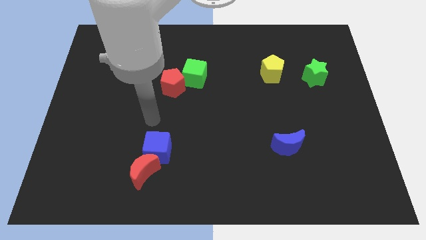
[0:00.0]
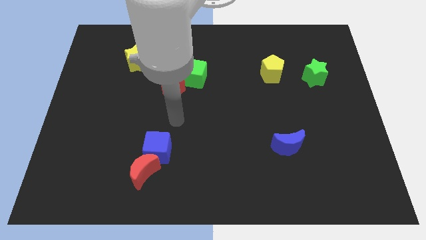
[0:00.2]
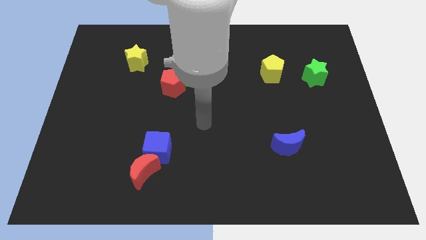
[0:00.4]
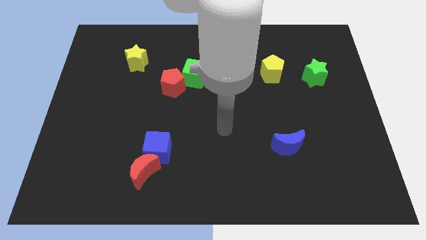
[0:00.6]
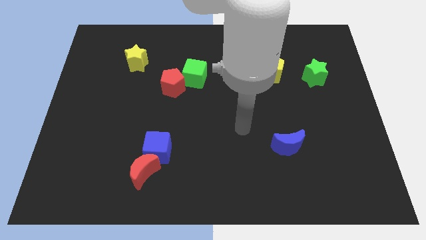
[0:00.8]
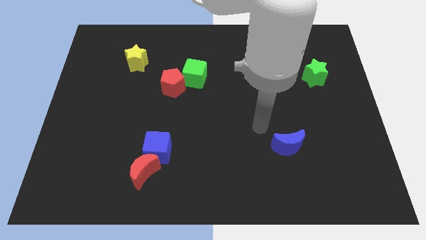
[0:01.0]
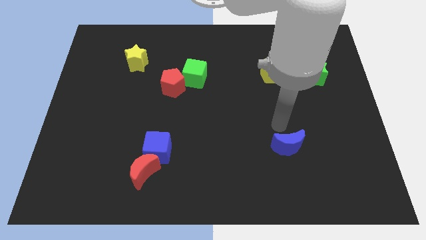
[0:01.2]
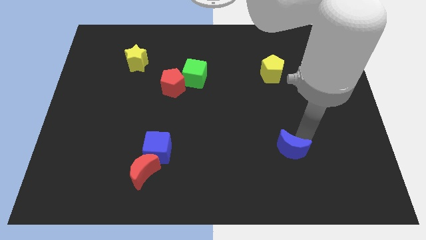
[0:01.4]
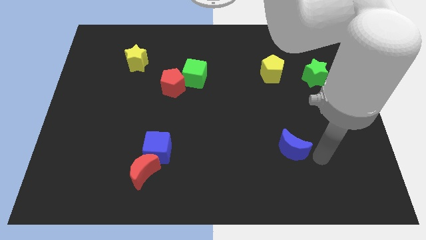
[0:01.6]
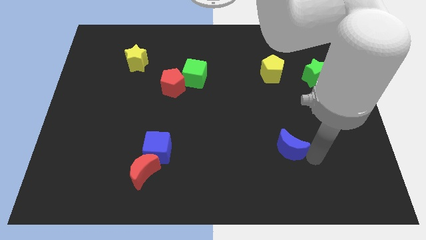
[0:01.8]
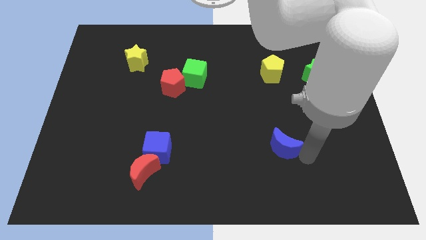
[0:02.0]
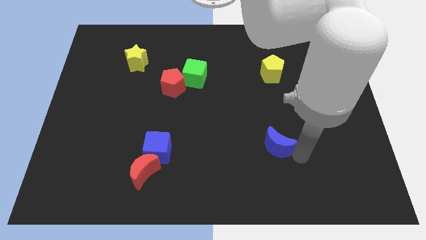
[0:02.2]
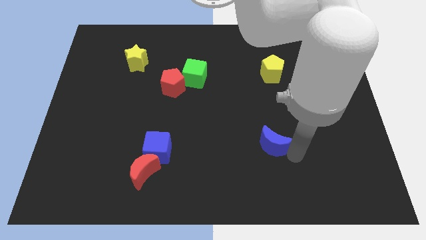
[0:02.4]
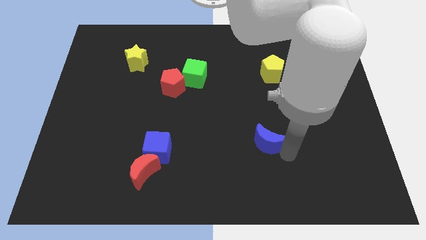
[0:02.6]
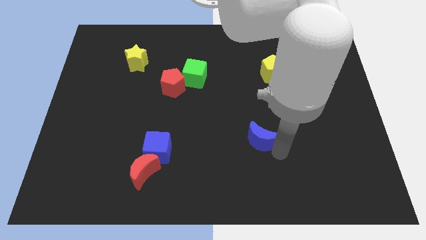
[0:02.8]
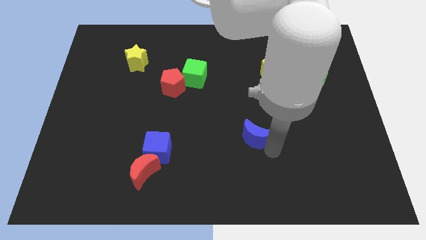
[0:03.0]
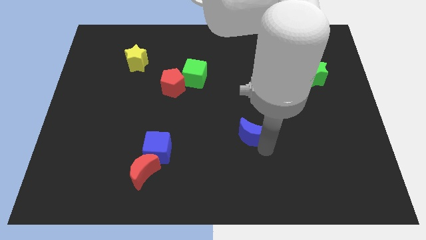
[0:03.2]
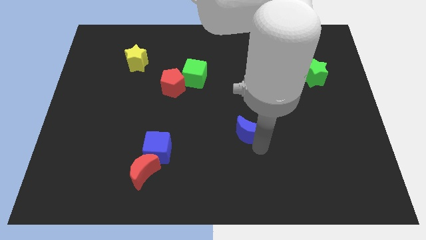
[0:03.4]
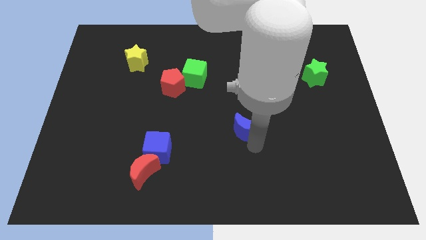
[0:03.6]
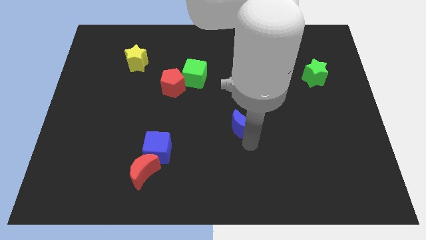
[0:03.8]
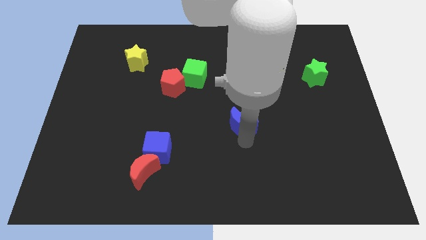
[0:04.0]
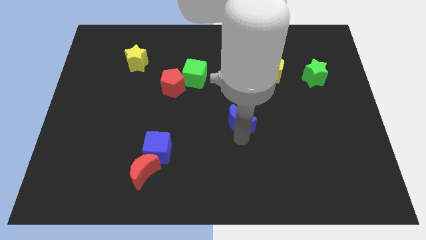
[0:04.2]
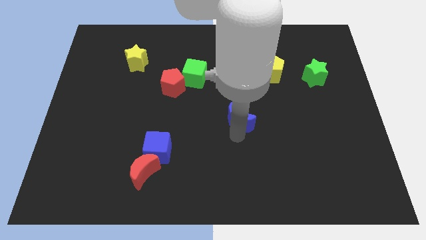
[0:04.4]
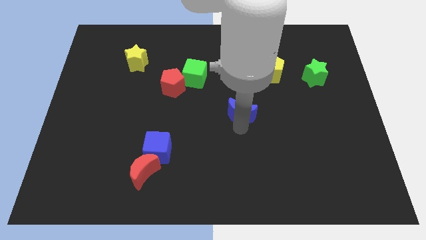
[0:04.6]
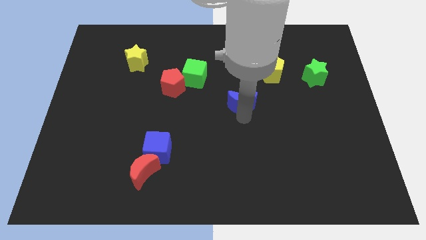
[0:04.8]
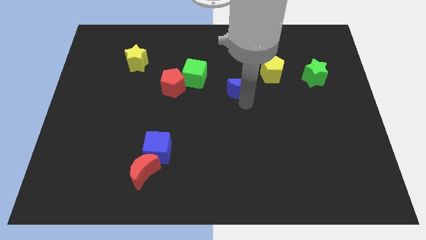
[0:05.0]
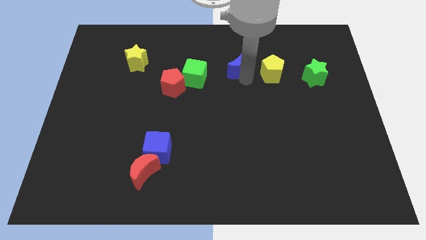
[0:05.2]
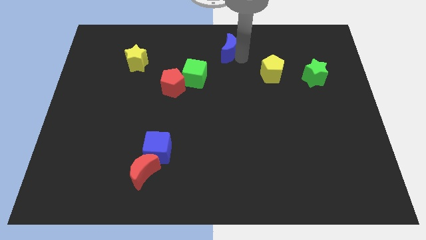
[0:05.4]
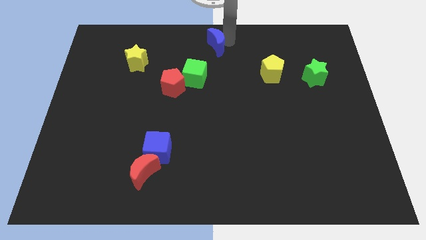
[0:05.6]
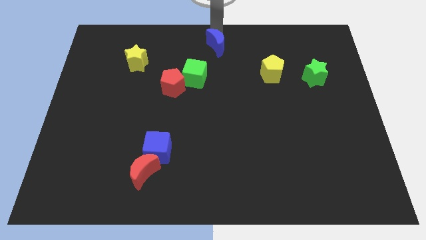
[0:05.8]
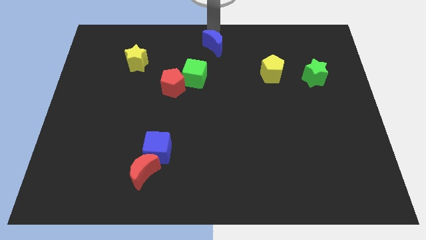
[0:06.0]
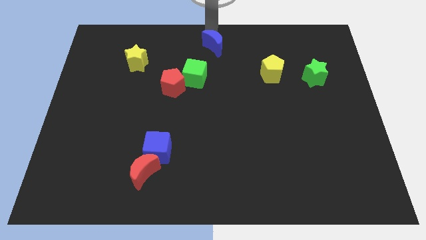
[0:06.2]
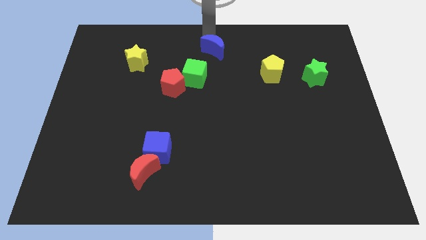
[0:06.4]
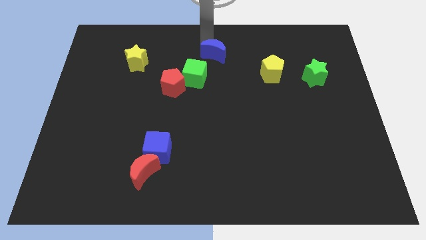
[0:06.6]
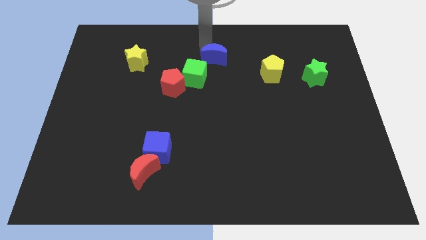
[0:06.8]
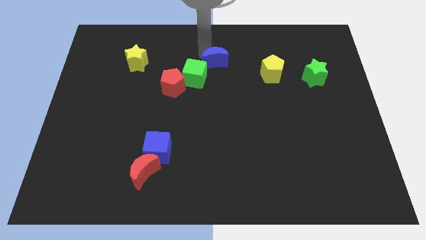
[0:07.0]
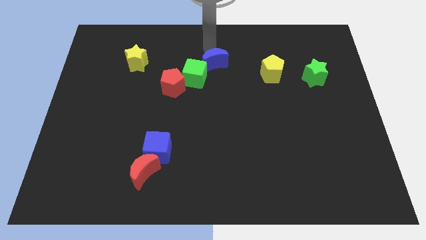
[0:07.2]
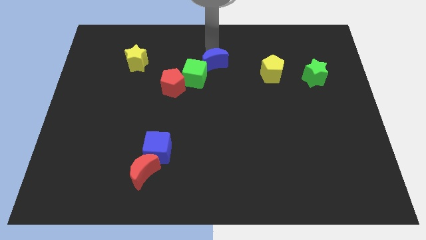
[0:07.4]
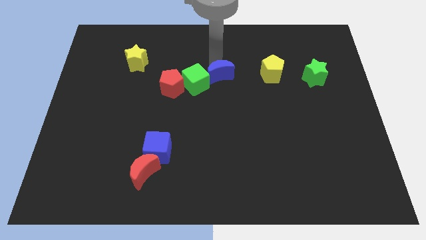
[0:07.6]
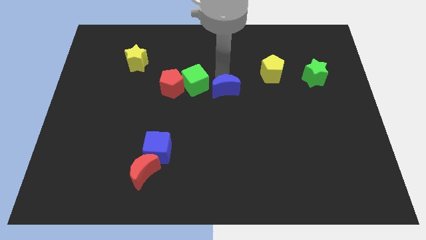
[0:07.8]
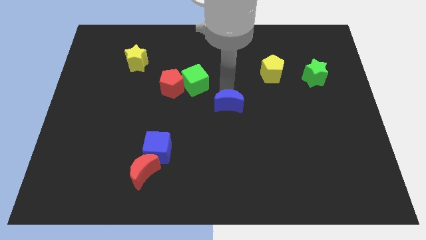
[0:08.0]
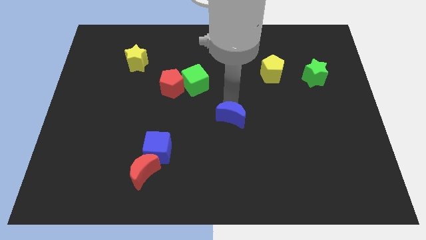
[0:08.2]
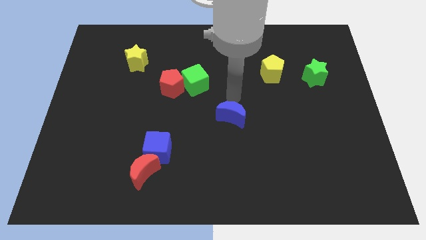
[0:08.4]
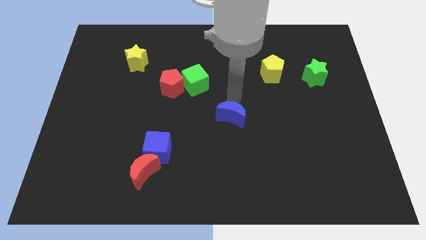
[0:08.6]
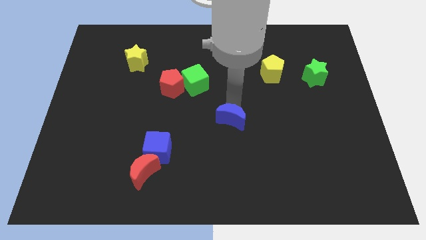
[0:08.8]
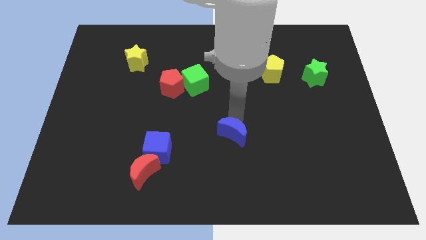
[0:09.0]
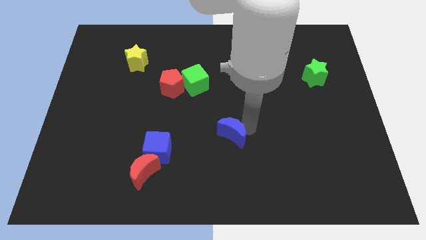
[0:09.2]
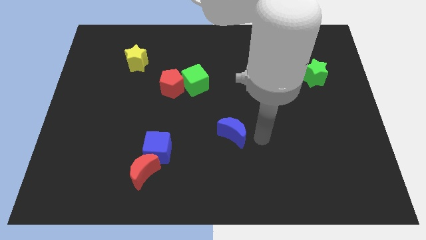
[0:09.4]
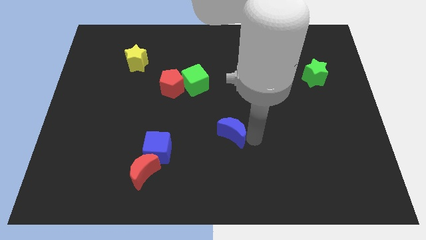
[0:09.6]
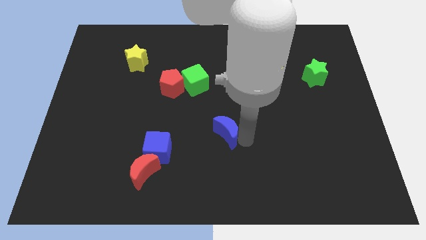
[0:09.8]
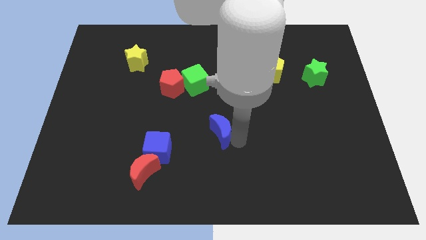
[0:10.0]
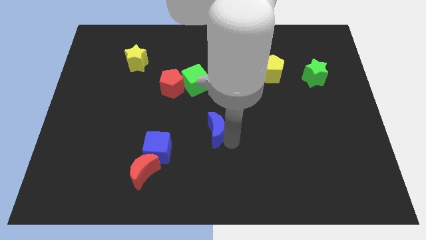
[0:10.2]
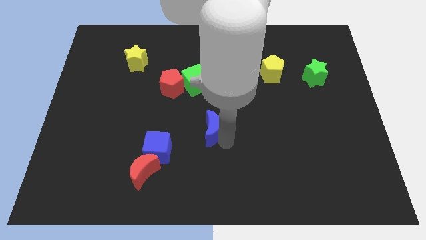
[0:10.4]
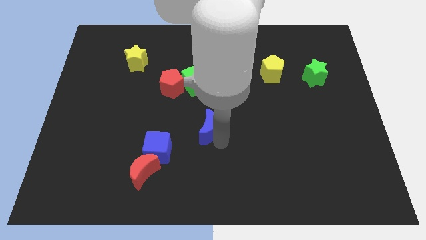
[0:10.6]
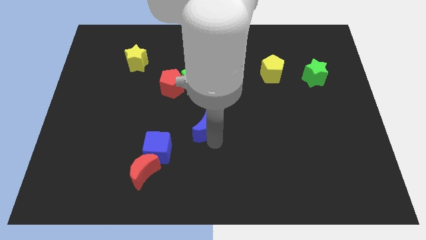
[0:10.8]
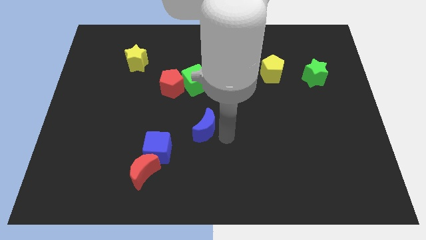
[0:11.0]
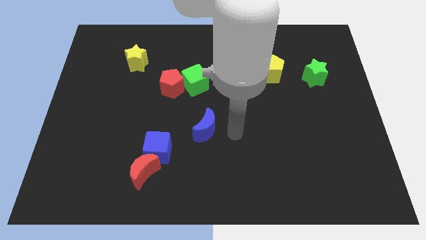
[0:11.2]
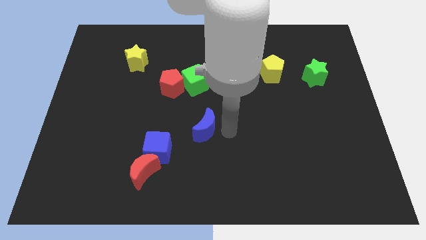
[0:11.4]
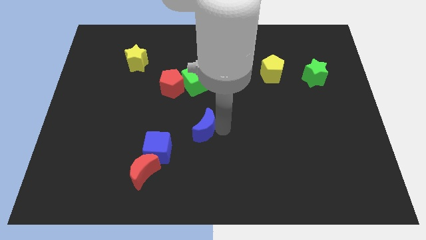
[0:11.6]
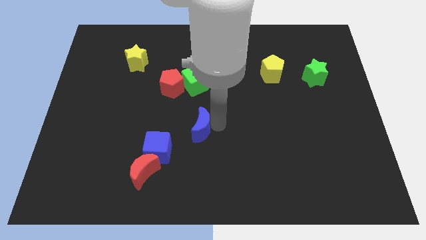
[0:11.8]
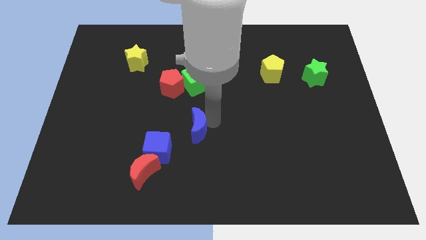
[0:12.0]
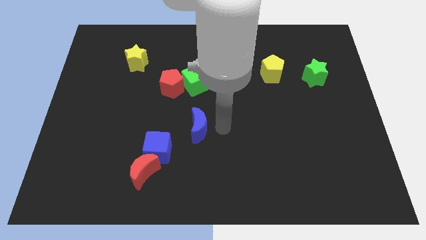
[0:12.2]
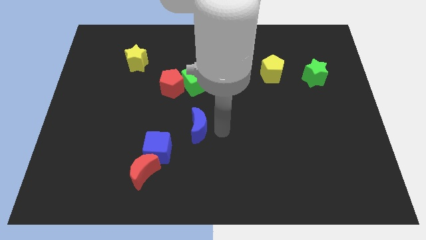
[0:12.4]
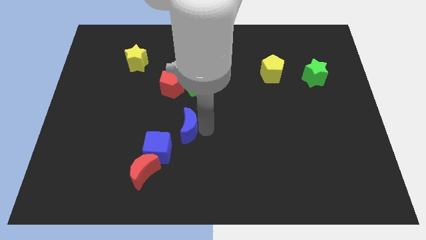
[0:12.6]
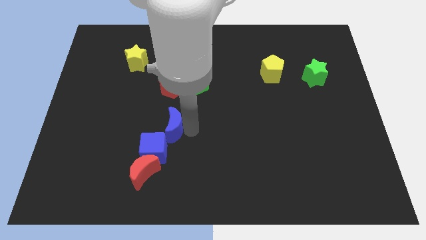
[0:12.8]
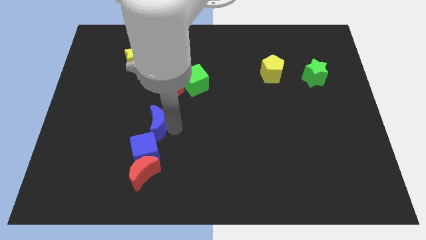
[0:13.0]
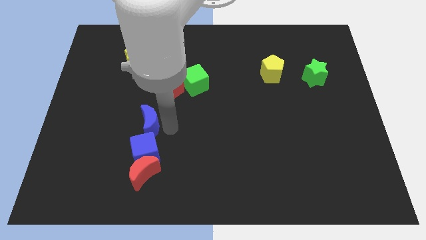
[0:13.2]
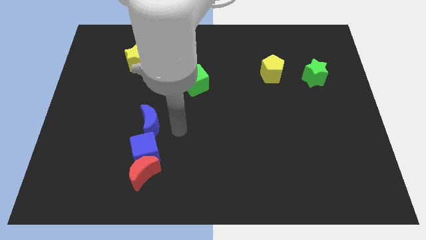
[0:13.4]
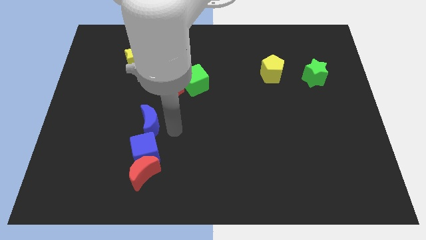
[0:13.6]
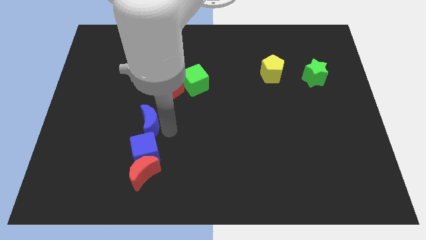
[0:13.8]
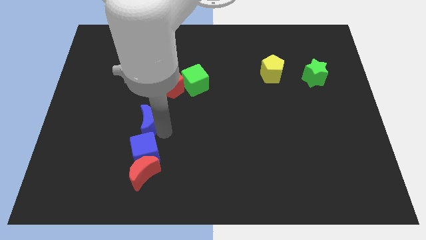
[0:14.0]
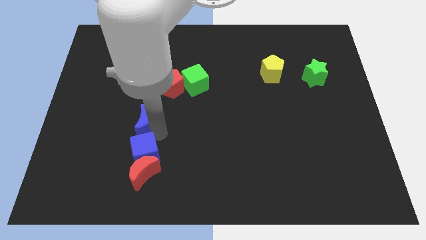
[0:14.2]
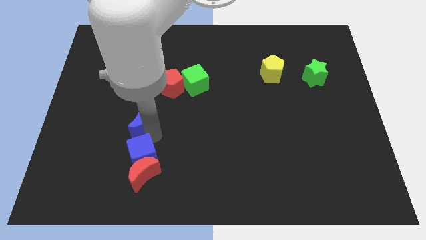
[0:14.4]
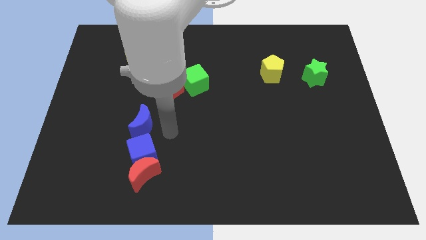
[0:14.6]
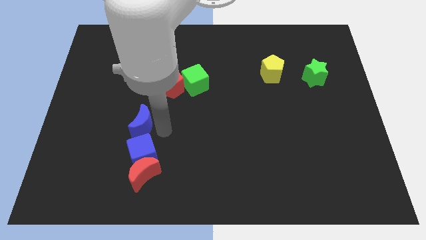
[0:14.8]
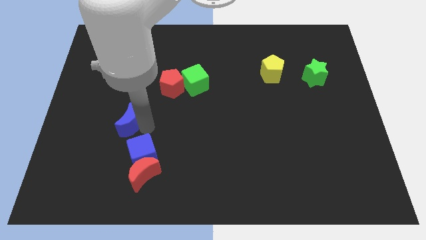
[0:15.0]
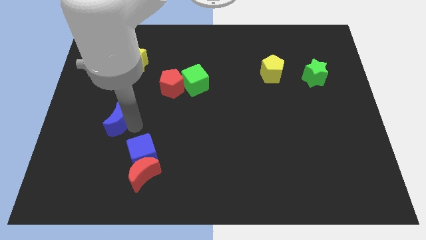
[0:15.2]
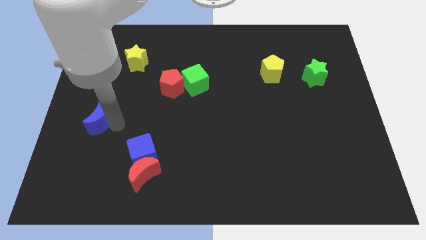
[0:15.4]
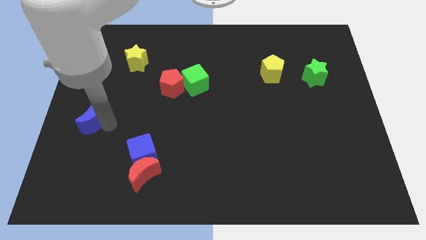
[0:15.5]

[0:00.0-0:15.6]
move the blue moon to the left side
